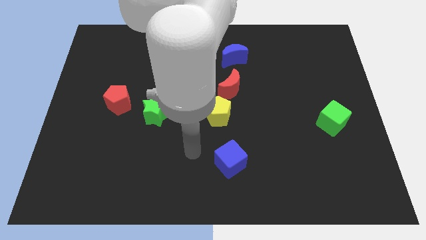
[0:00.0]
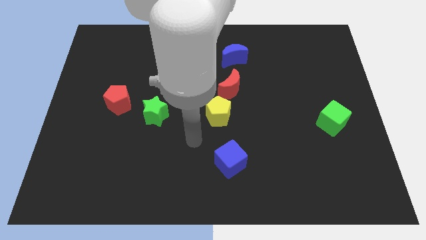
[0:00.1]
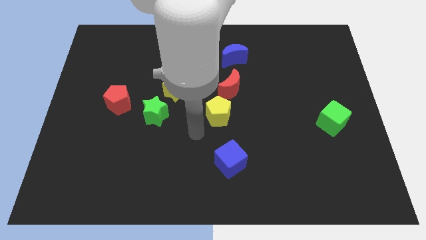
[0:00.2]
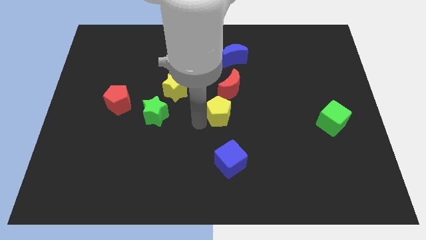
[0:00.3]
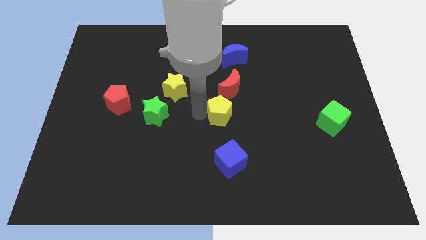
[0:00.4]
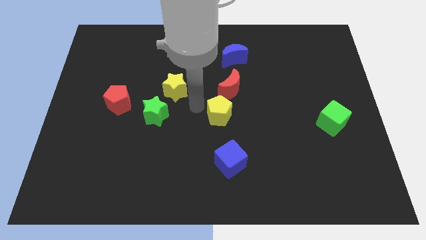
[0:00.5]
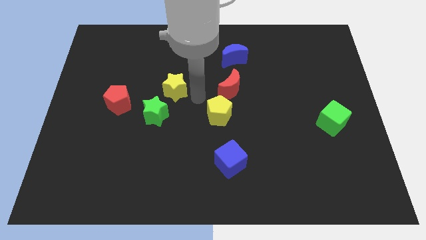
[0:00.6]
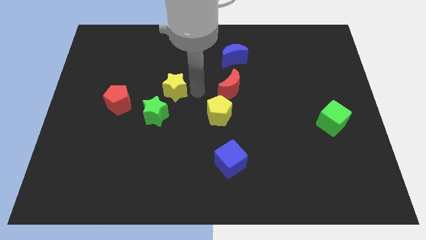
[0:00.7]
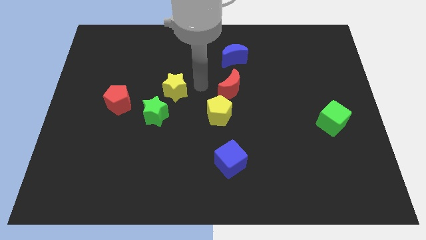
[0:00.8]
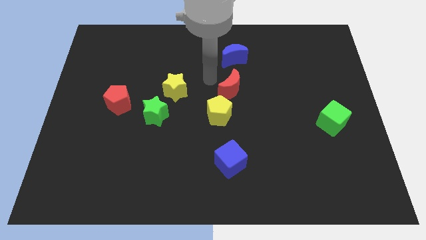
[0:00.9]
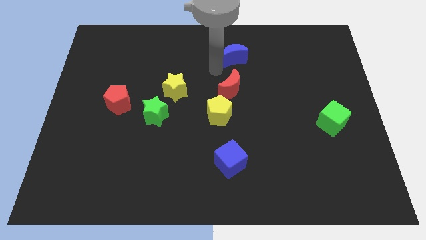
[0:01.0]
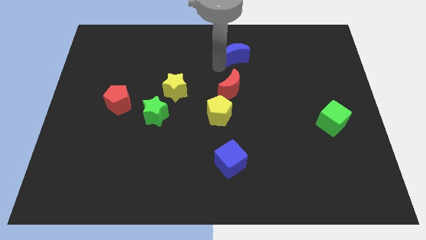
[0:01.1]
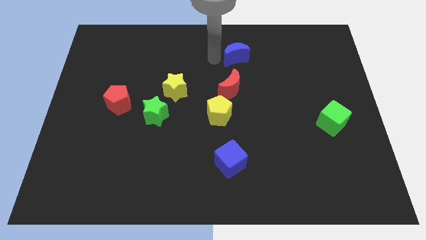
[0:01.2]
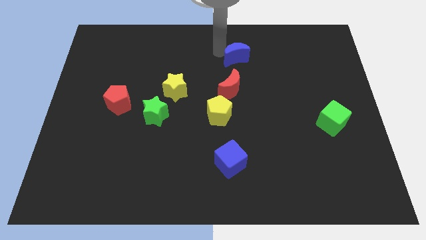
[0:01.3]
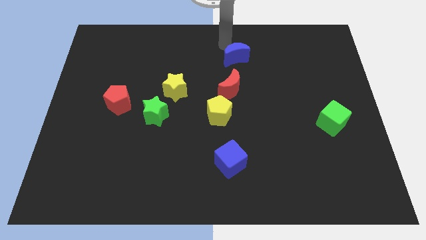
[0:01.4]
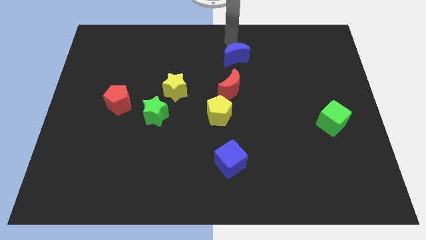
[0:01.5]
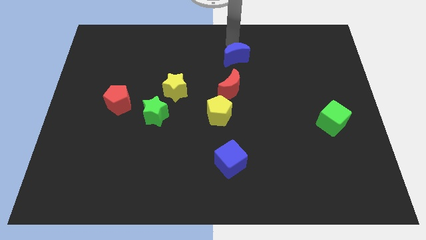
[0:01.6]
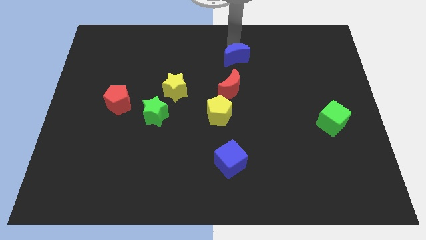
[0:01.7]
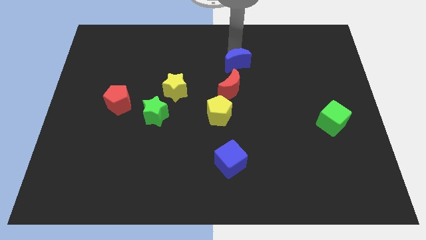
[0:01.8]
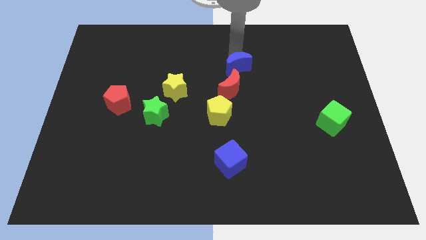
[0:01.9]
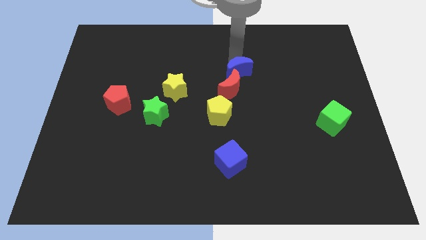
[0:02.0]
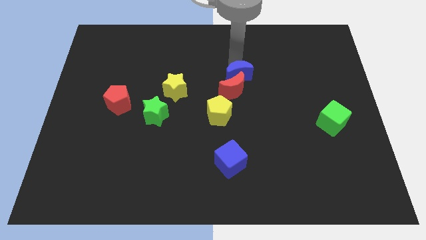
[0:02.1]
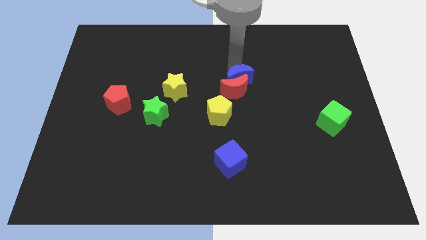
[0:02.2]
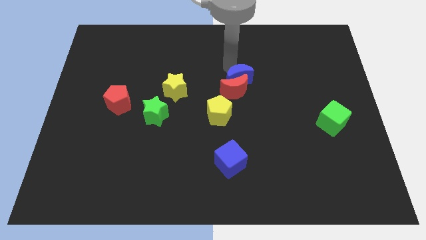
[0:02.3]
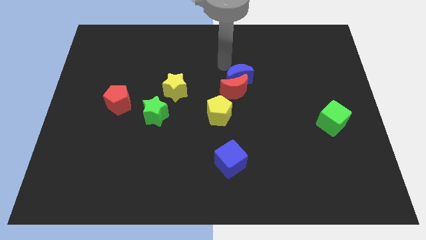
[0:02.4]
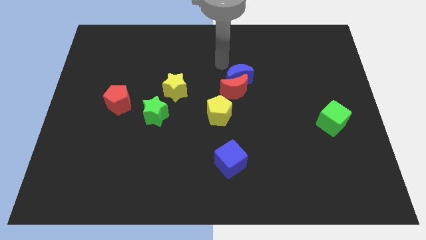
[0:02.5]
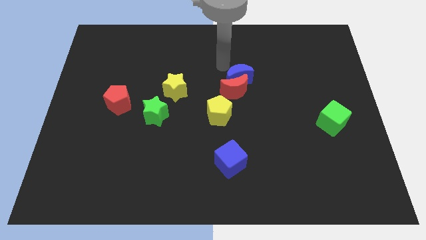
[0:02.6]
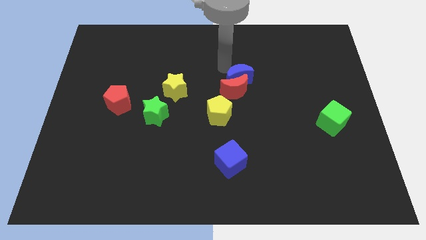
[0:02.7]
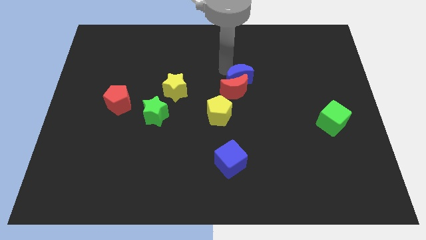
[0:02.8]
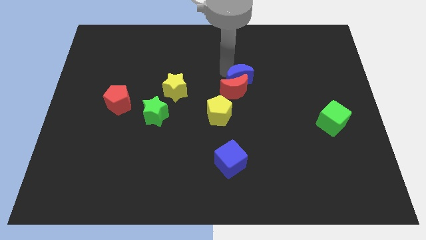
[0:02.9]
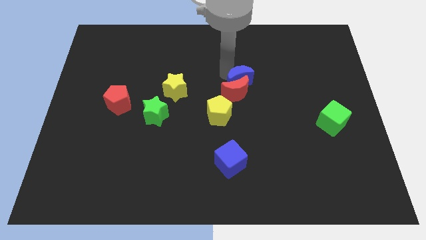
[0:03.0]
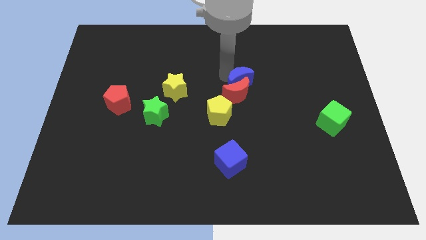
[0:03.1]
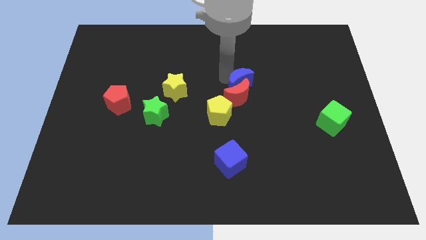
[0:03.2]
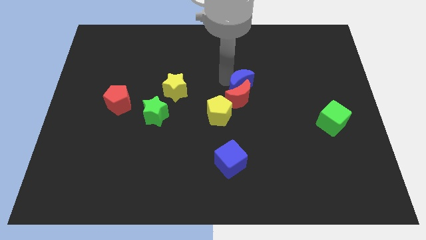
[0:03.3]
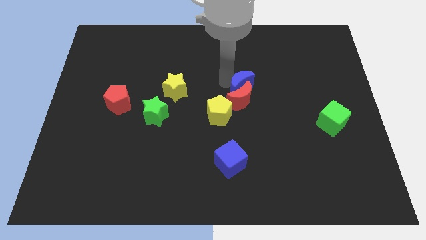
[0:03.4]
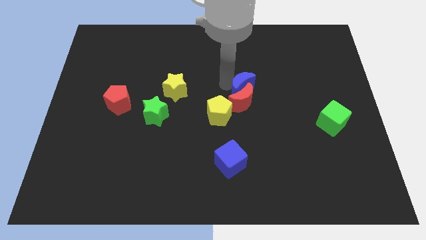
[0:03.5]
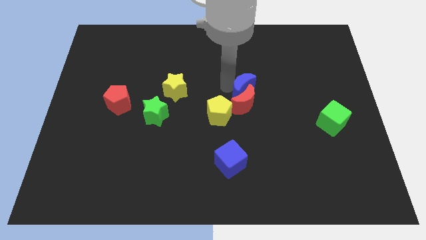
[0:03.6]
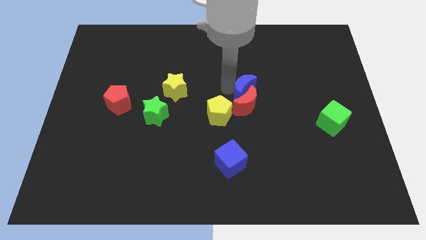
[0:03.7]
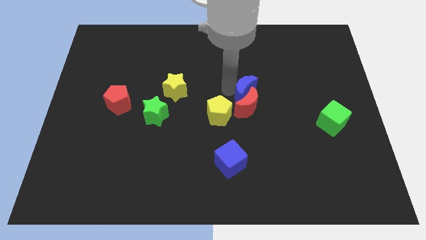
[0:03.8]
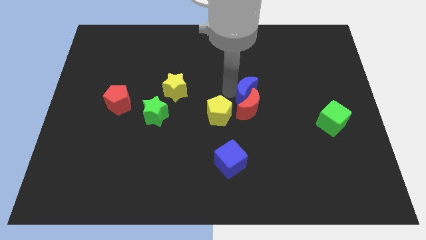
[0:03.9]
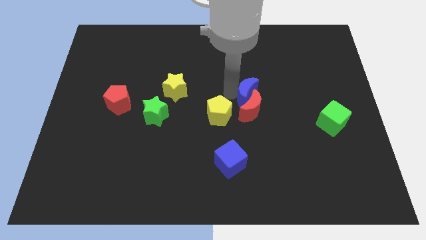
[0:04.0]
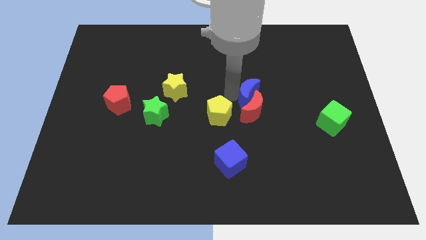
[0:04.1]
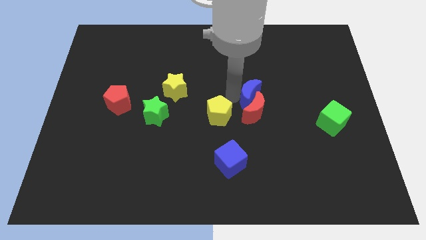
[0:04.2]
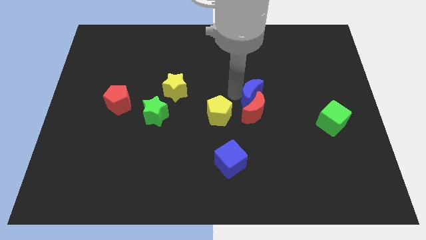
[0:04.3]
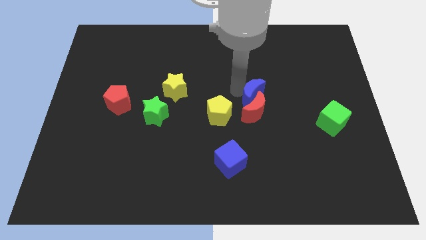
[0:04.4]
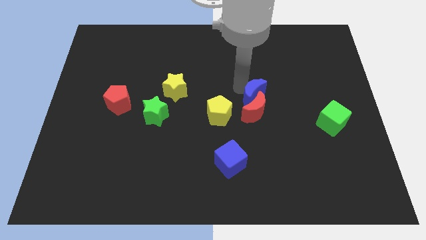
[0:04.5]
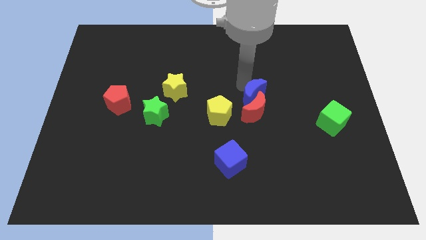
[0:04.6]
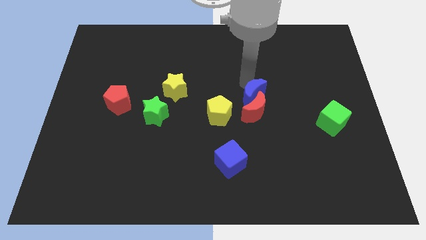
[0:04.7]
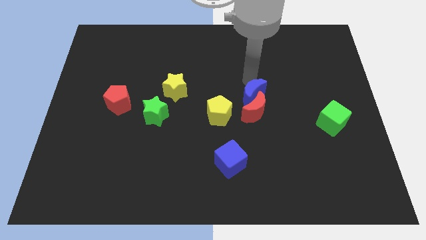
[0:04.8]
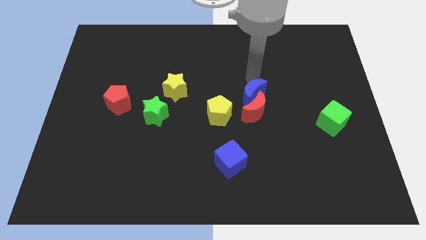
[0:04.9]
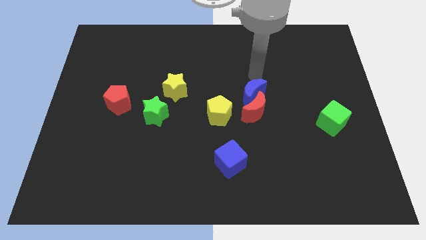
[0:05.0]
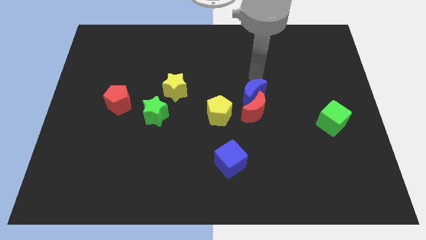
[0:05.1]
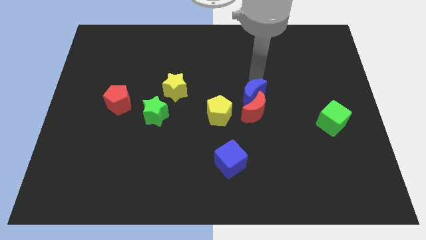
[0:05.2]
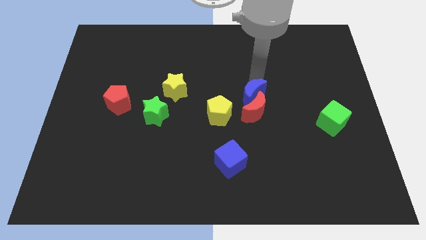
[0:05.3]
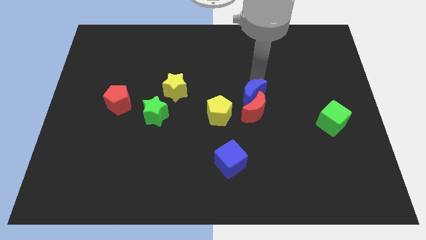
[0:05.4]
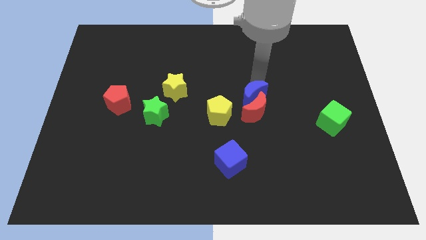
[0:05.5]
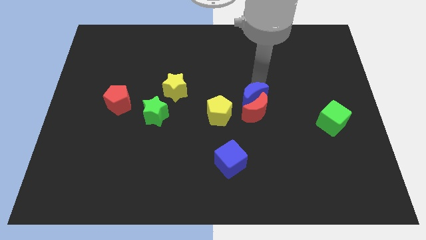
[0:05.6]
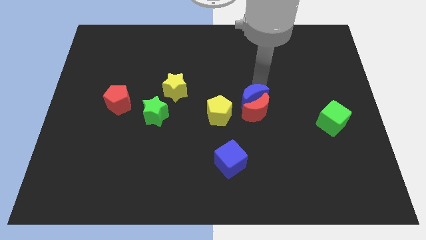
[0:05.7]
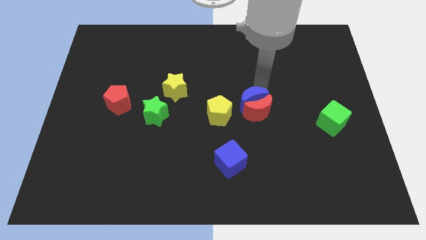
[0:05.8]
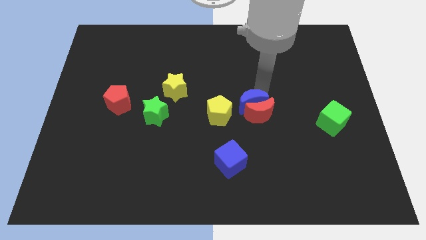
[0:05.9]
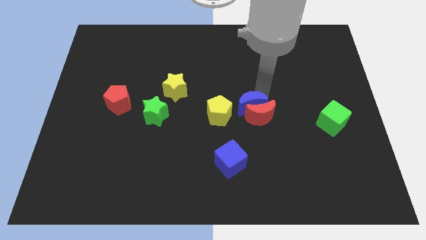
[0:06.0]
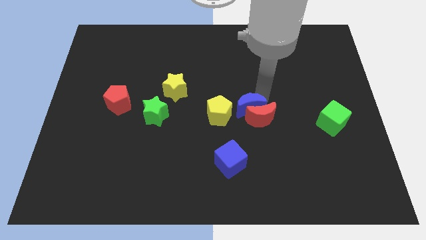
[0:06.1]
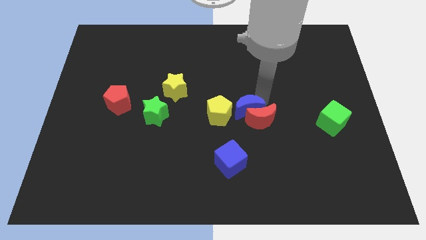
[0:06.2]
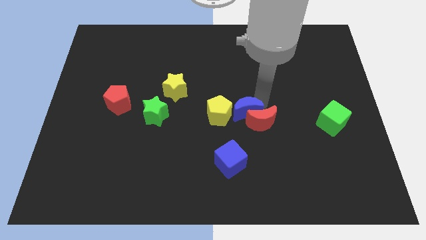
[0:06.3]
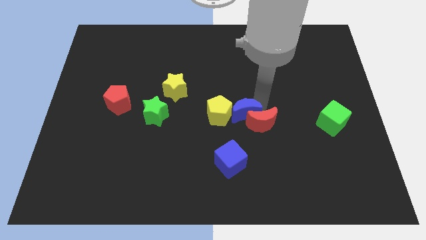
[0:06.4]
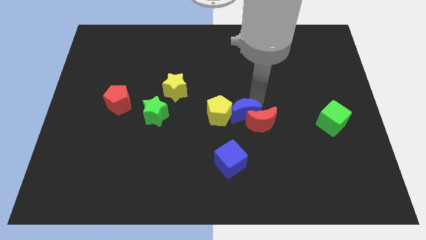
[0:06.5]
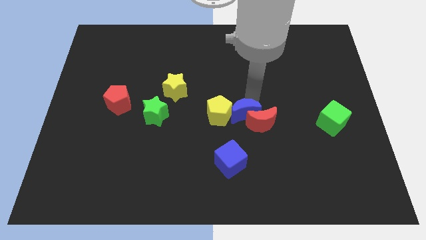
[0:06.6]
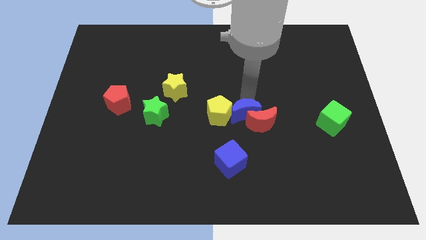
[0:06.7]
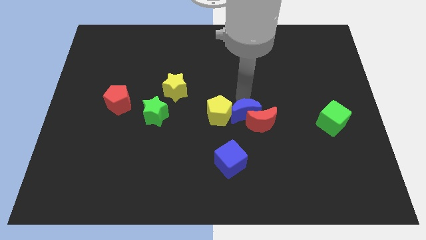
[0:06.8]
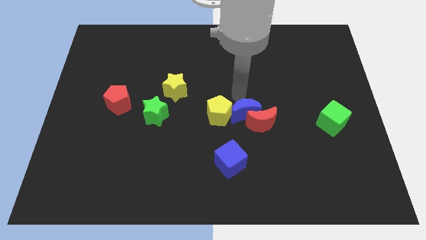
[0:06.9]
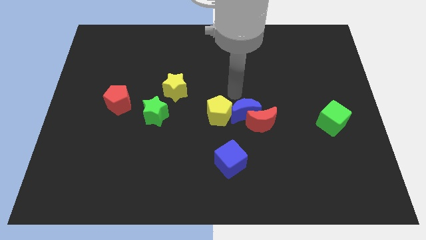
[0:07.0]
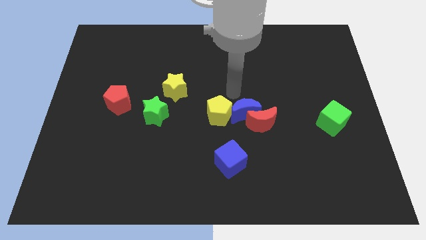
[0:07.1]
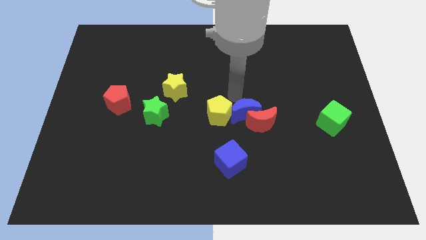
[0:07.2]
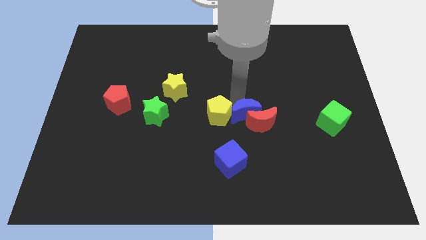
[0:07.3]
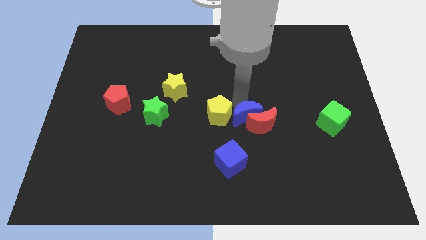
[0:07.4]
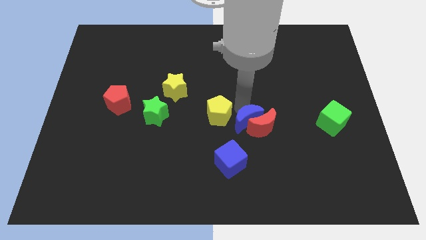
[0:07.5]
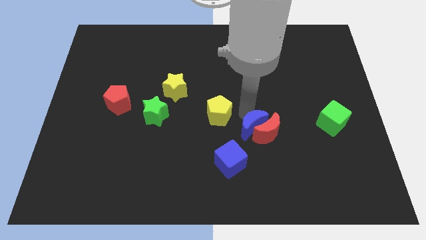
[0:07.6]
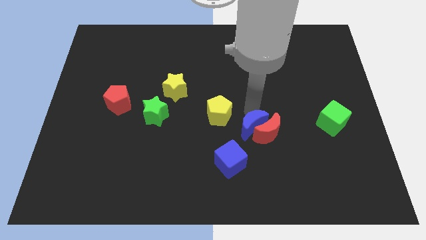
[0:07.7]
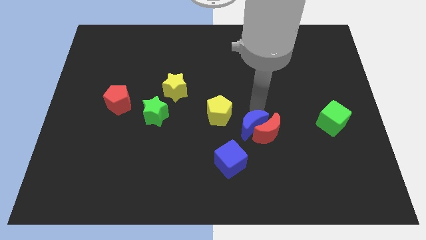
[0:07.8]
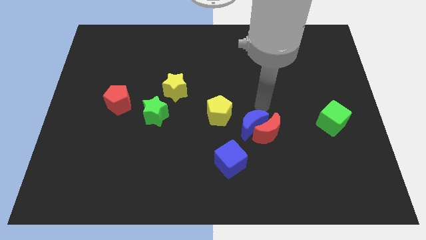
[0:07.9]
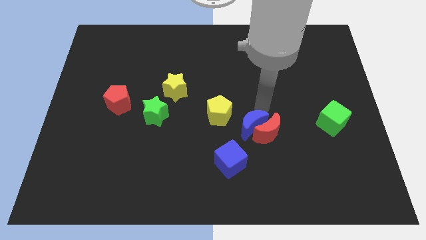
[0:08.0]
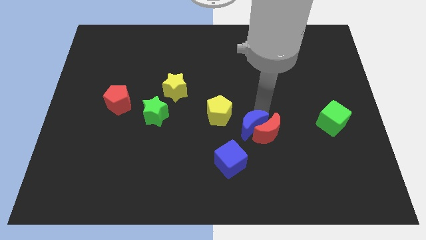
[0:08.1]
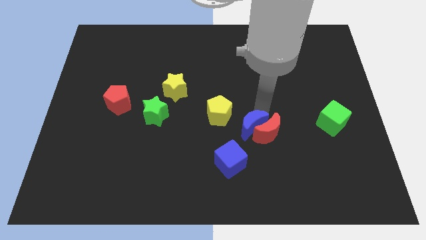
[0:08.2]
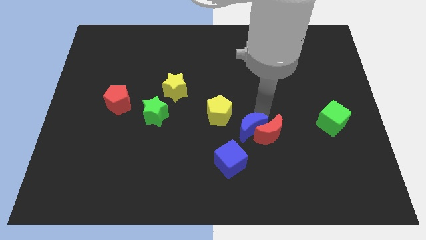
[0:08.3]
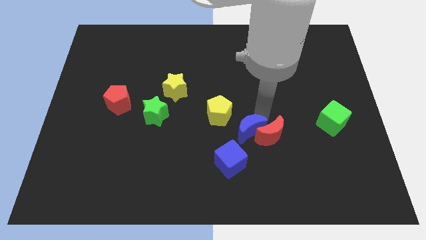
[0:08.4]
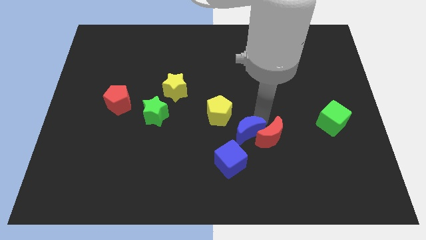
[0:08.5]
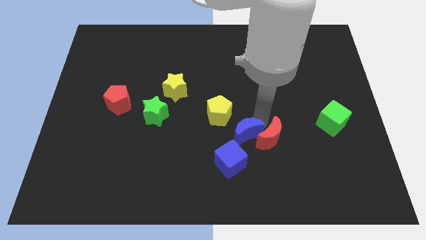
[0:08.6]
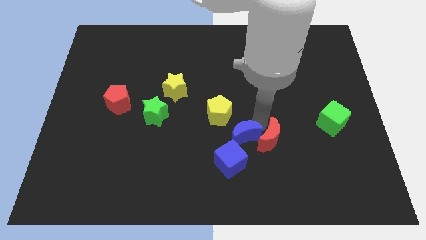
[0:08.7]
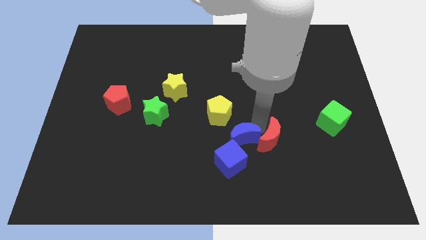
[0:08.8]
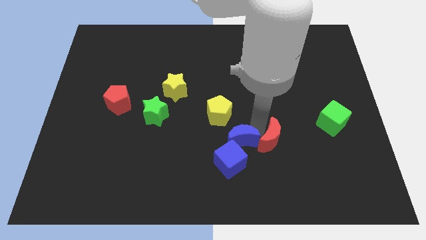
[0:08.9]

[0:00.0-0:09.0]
push the blue moon next to the blue cube
